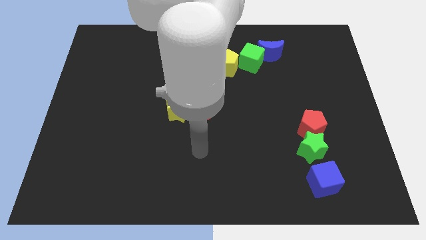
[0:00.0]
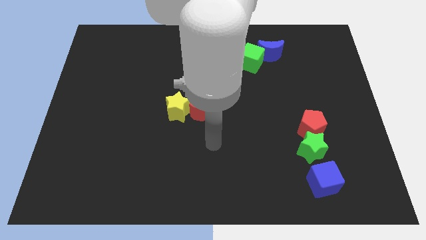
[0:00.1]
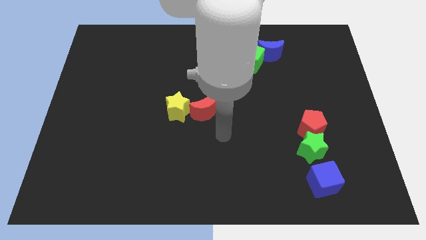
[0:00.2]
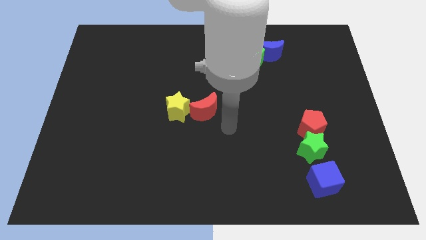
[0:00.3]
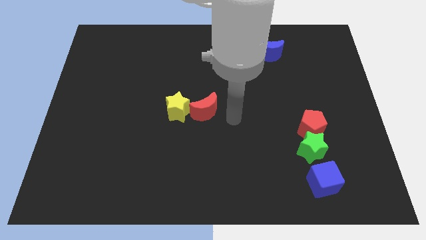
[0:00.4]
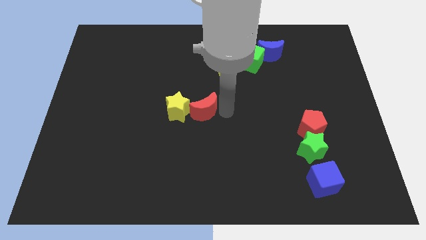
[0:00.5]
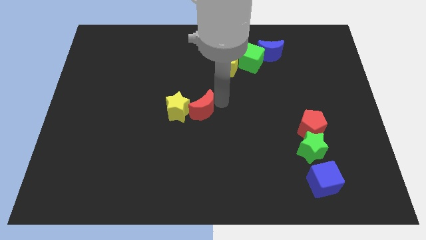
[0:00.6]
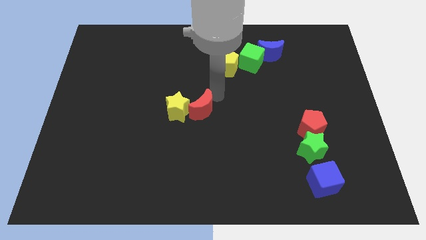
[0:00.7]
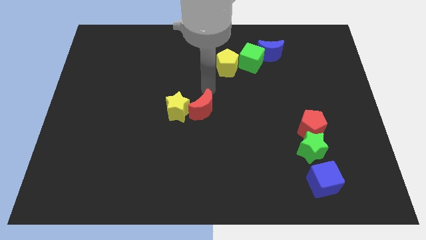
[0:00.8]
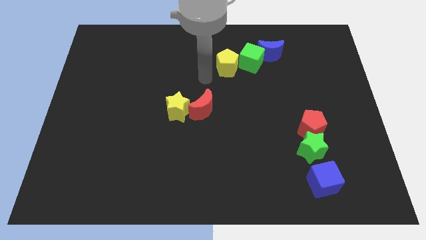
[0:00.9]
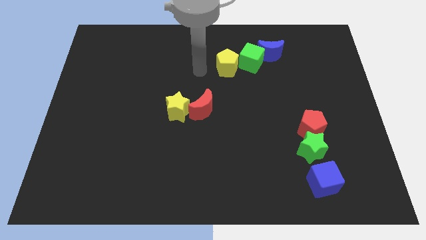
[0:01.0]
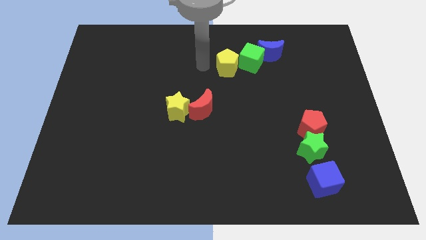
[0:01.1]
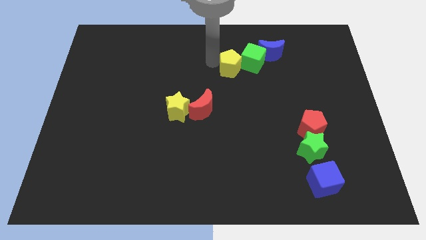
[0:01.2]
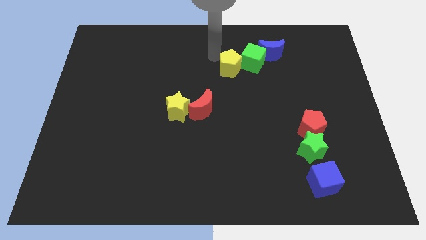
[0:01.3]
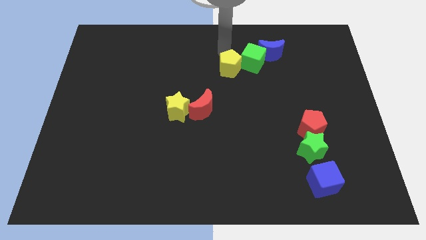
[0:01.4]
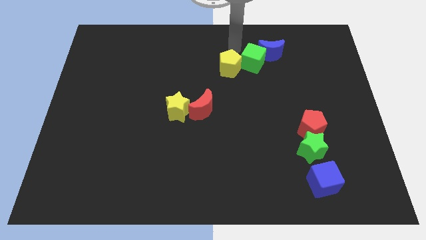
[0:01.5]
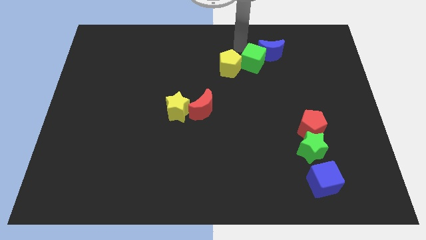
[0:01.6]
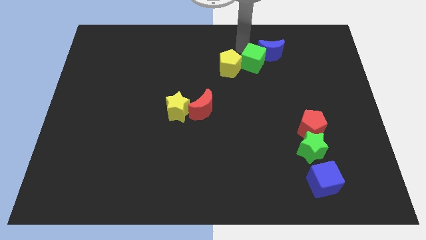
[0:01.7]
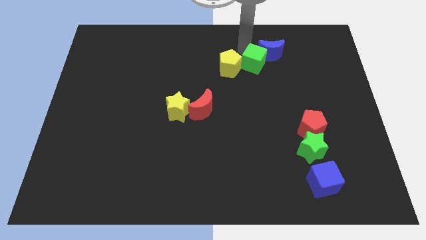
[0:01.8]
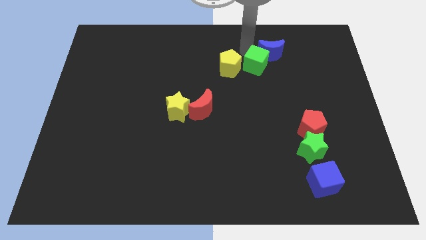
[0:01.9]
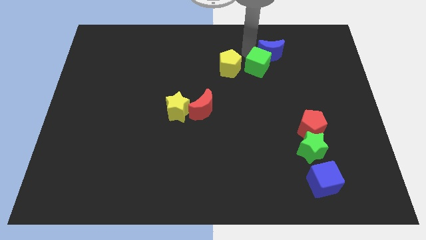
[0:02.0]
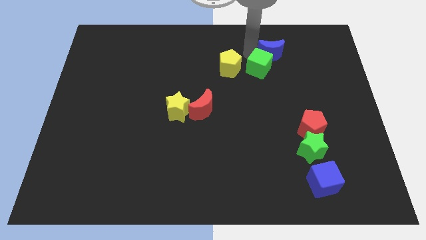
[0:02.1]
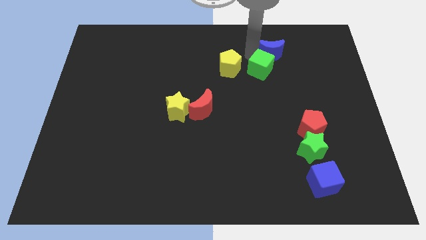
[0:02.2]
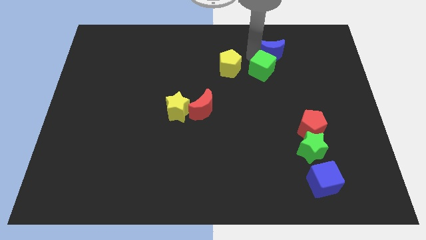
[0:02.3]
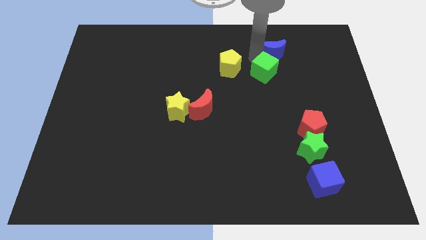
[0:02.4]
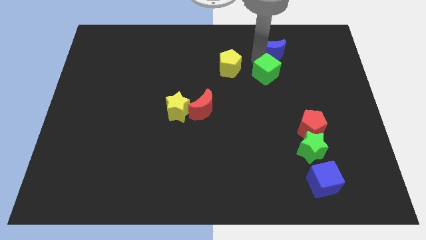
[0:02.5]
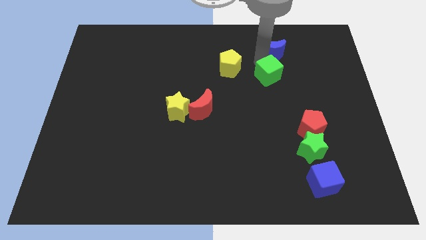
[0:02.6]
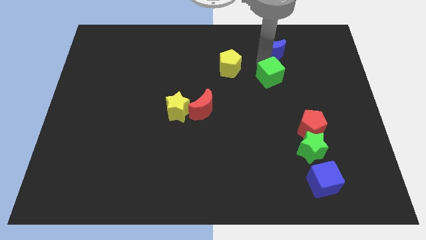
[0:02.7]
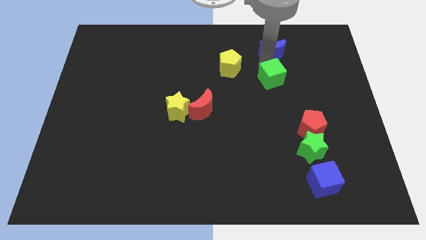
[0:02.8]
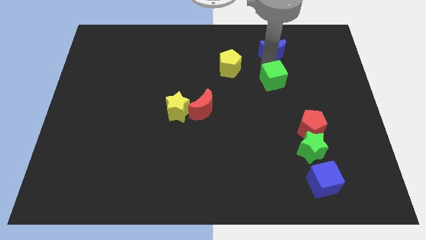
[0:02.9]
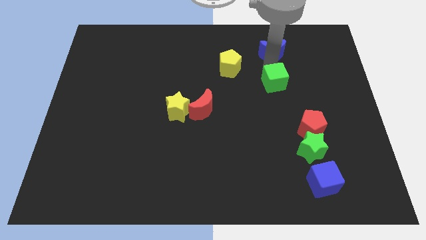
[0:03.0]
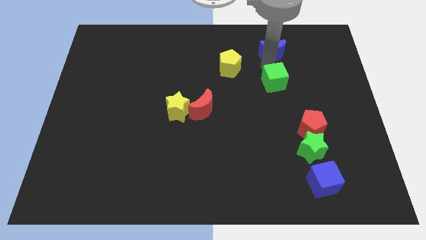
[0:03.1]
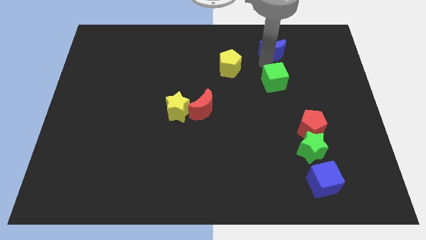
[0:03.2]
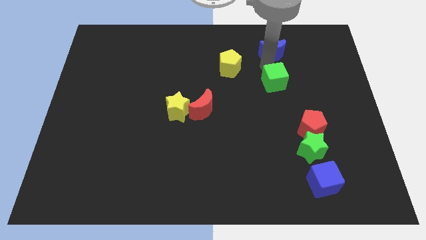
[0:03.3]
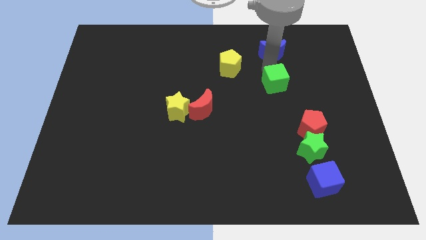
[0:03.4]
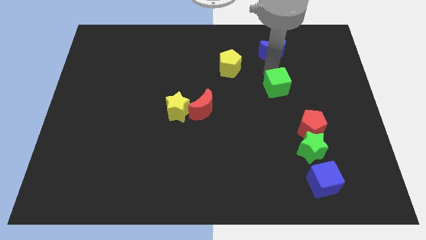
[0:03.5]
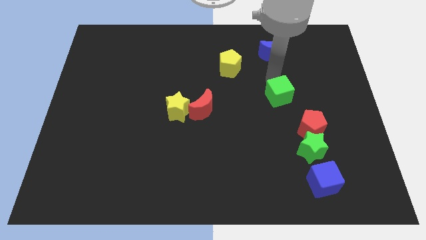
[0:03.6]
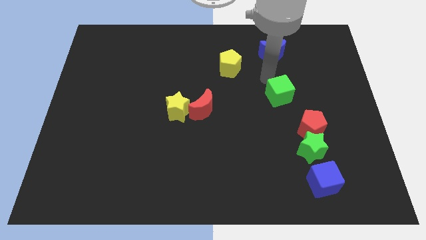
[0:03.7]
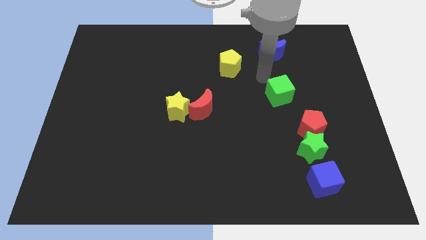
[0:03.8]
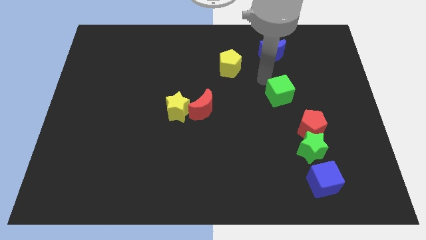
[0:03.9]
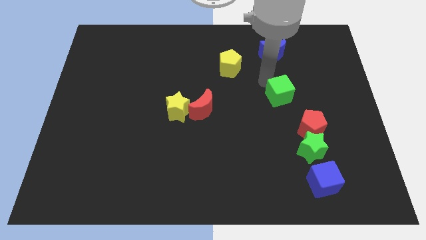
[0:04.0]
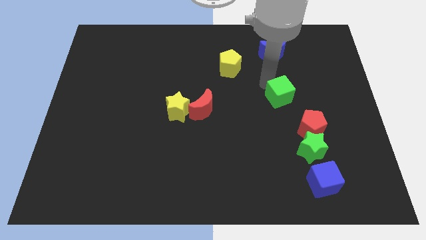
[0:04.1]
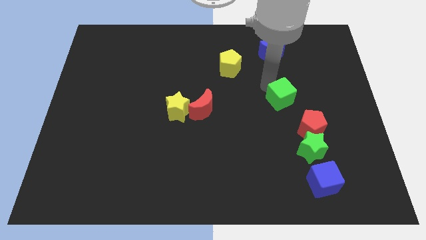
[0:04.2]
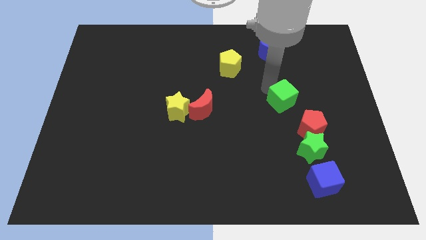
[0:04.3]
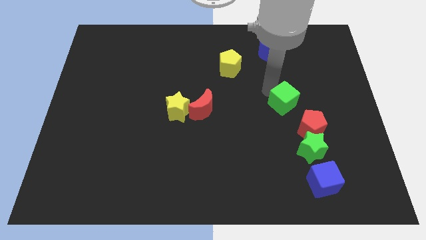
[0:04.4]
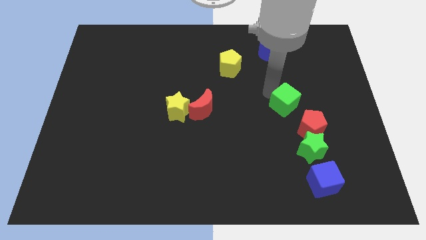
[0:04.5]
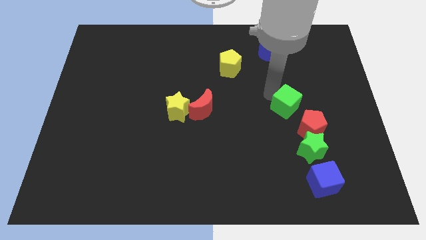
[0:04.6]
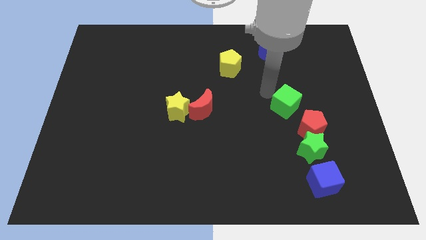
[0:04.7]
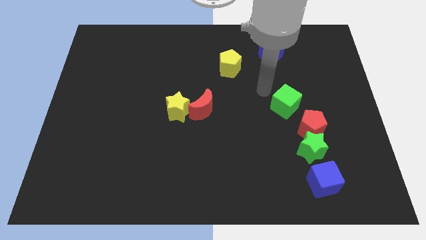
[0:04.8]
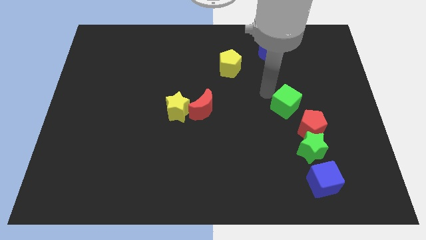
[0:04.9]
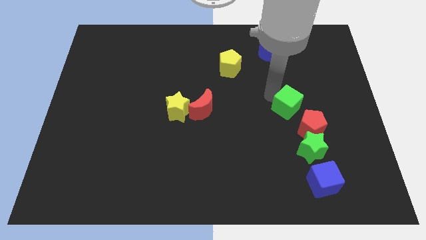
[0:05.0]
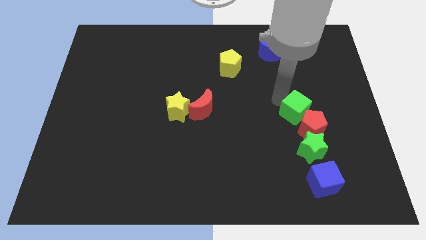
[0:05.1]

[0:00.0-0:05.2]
push the green cube to the red pentagon

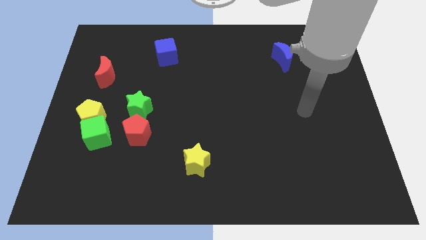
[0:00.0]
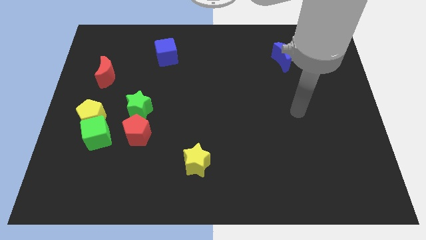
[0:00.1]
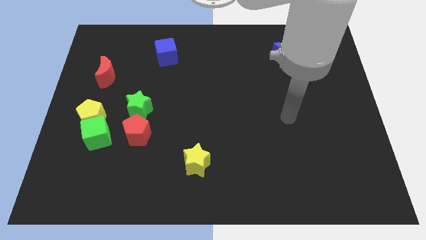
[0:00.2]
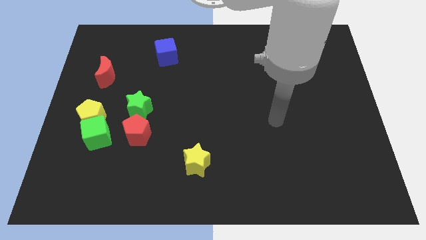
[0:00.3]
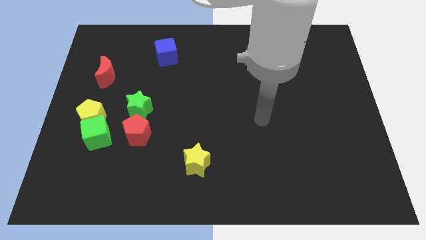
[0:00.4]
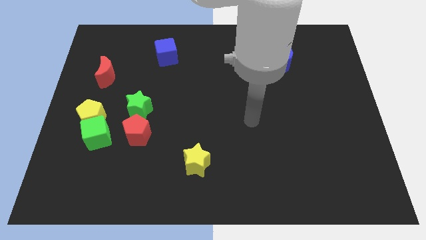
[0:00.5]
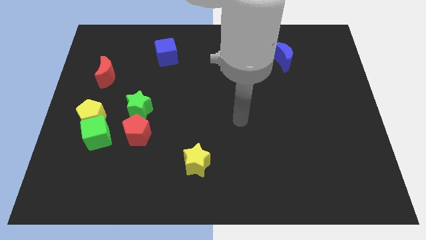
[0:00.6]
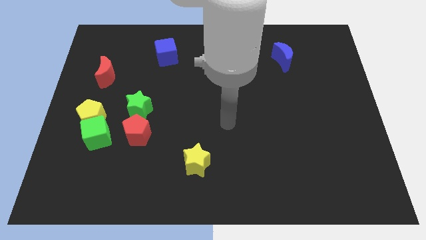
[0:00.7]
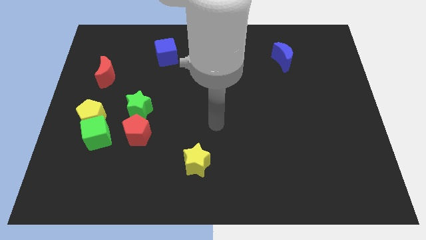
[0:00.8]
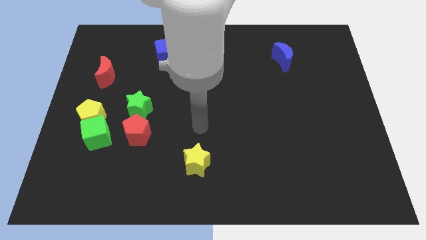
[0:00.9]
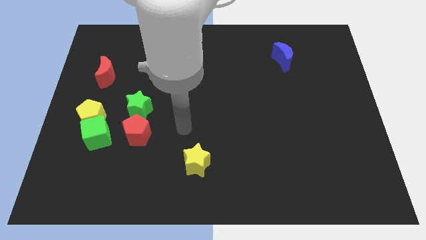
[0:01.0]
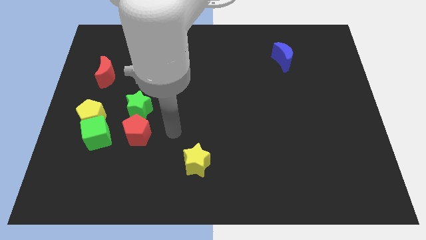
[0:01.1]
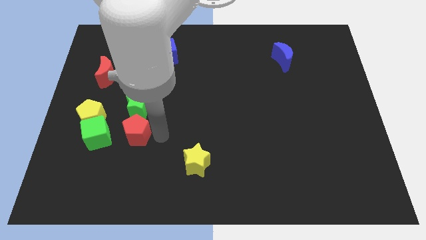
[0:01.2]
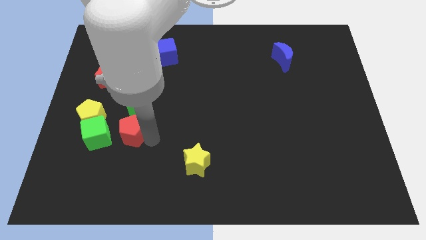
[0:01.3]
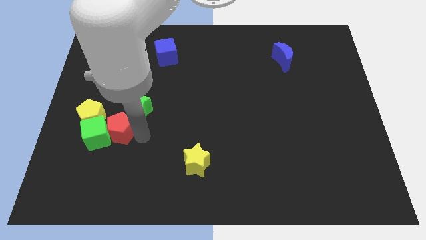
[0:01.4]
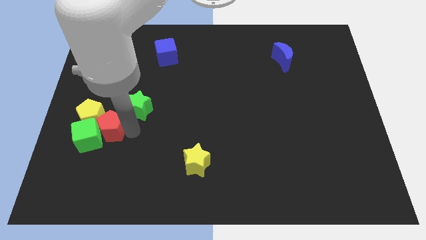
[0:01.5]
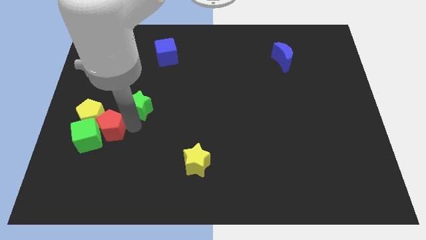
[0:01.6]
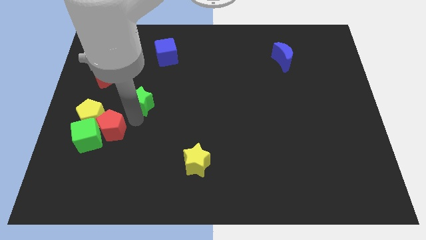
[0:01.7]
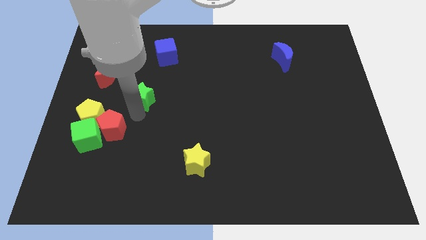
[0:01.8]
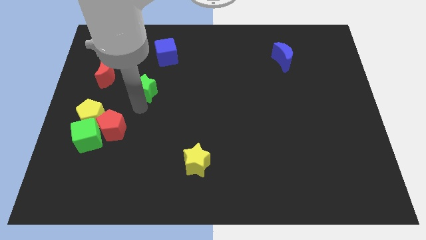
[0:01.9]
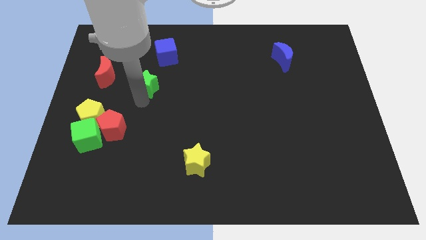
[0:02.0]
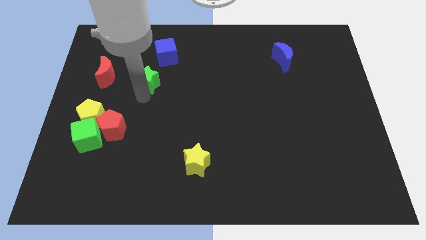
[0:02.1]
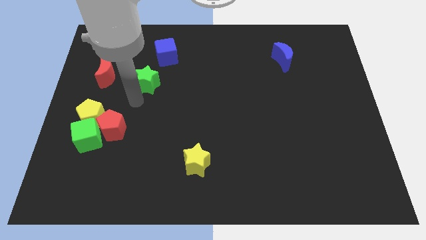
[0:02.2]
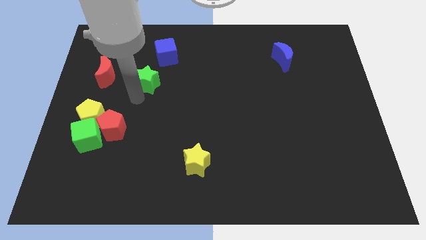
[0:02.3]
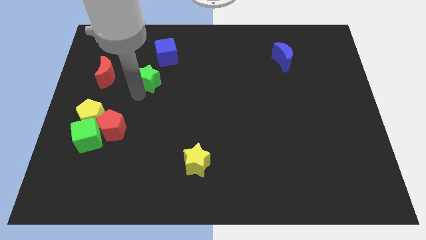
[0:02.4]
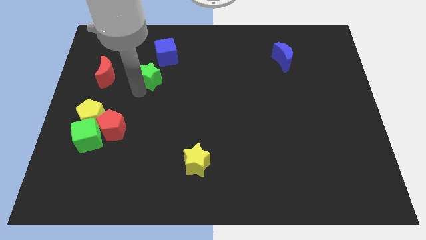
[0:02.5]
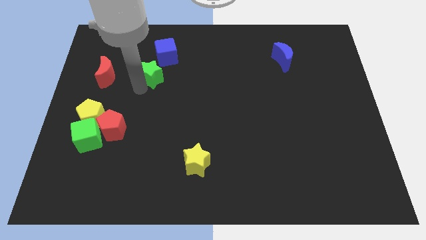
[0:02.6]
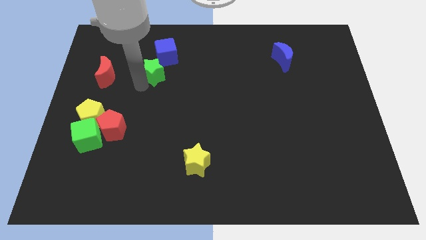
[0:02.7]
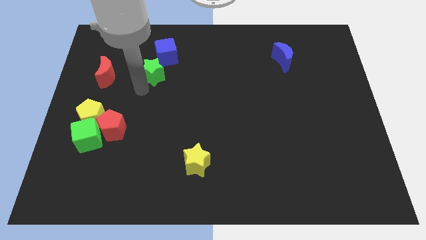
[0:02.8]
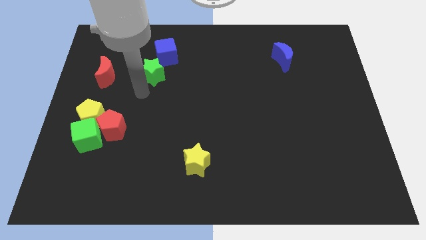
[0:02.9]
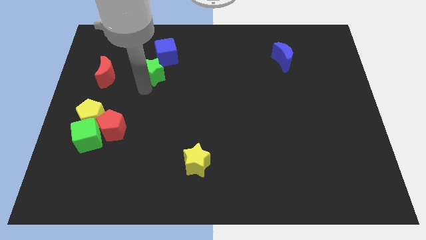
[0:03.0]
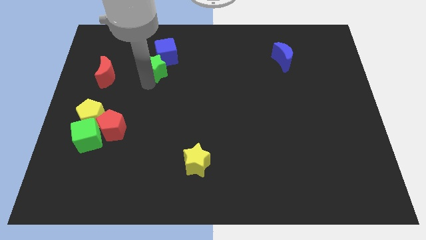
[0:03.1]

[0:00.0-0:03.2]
slide the green star towards the blue cube
